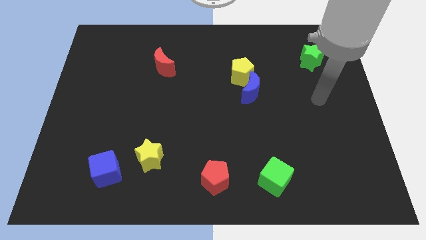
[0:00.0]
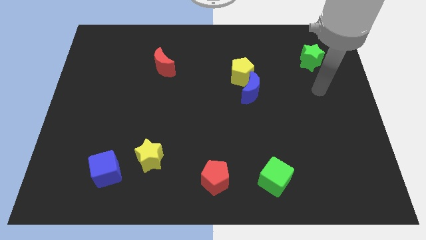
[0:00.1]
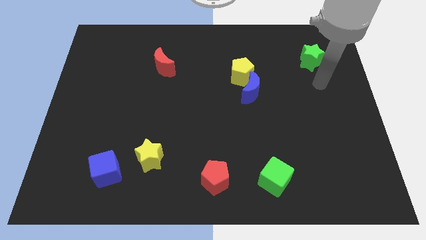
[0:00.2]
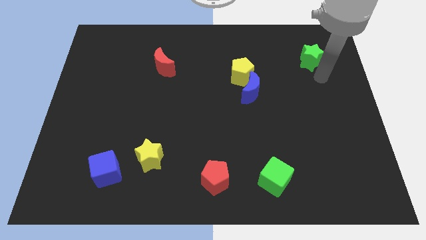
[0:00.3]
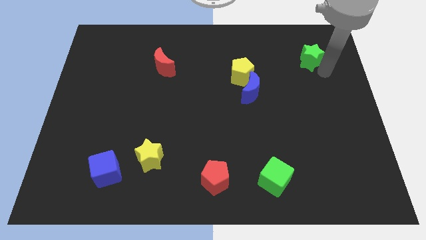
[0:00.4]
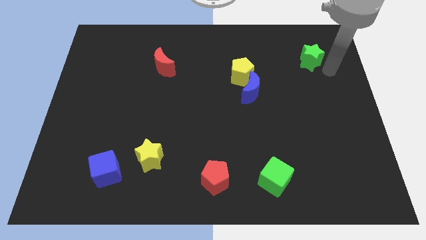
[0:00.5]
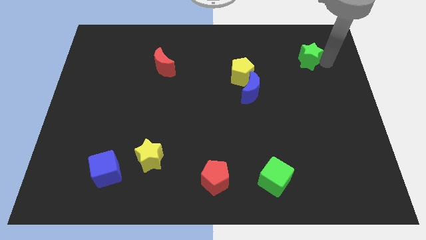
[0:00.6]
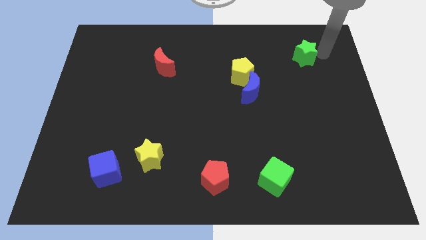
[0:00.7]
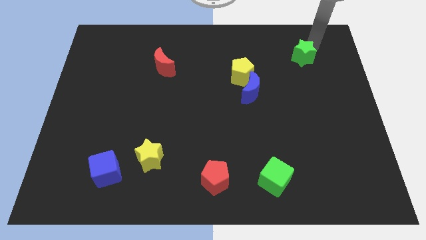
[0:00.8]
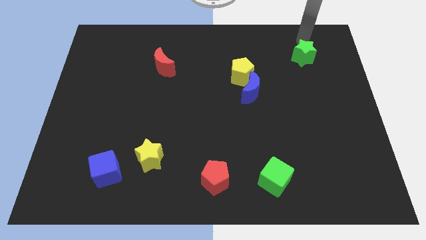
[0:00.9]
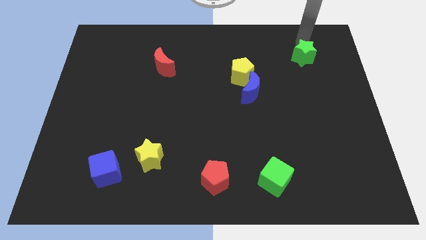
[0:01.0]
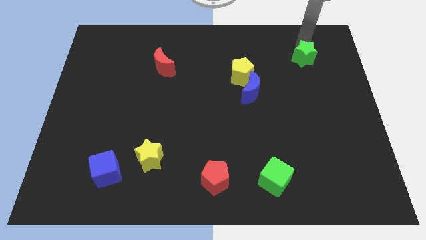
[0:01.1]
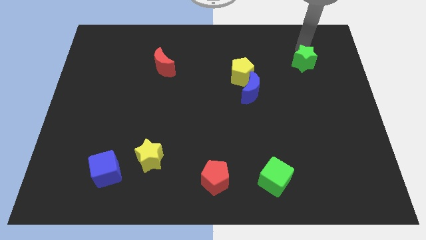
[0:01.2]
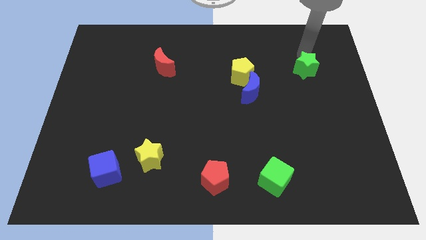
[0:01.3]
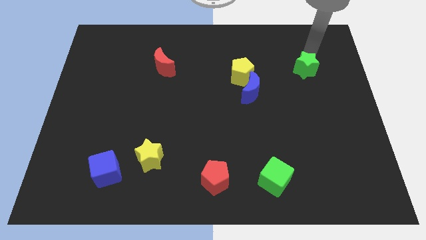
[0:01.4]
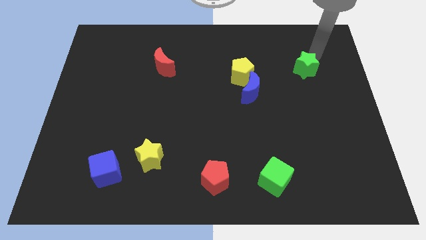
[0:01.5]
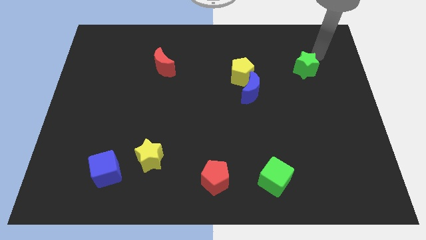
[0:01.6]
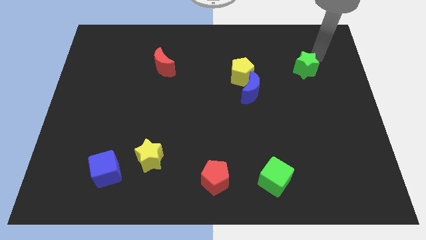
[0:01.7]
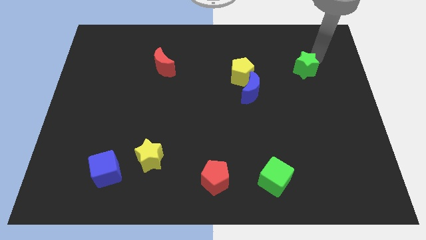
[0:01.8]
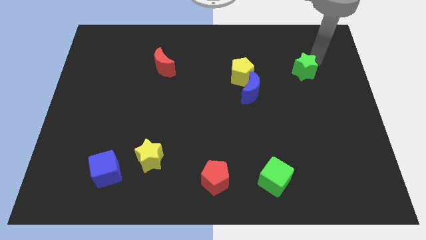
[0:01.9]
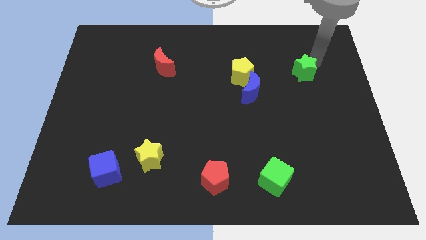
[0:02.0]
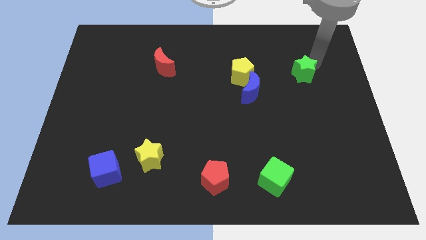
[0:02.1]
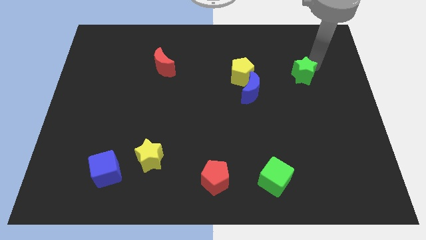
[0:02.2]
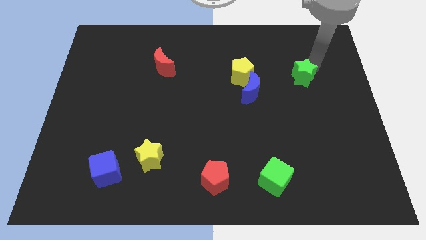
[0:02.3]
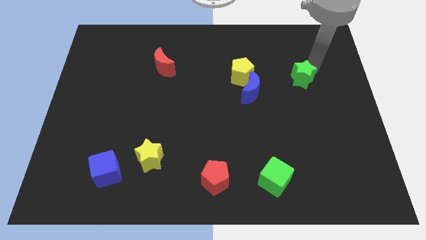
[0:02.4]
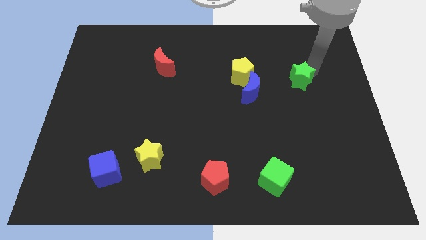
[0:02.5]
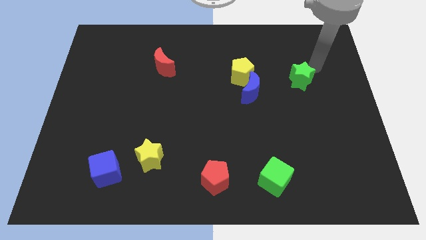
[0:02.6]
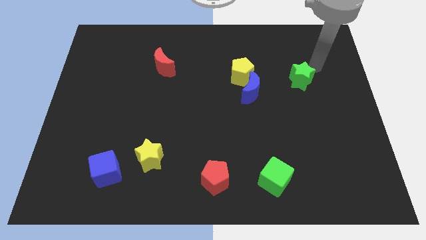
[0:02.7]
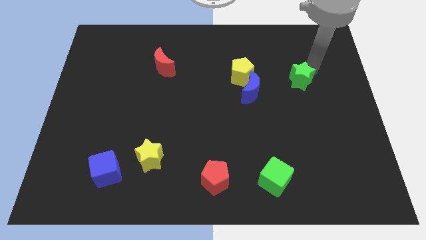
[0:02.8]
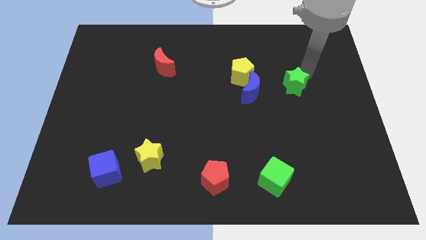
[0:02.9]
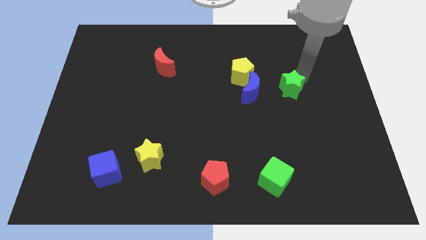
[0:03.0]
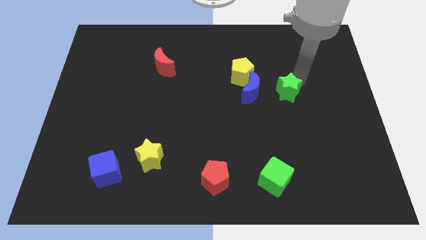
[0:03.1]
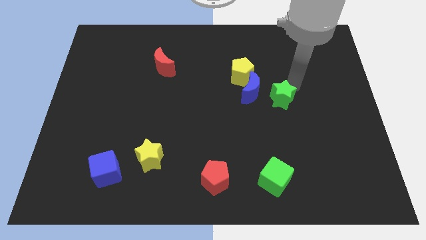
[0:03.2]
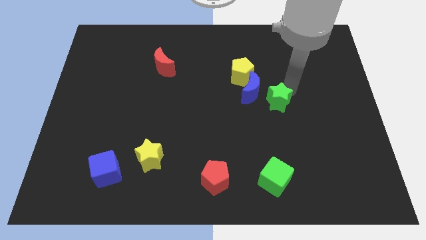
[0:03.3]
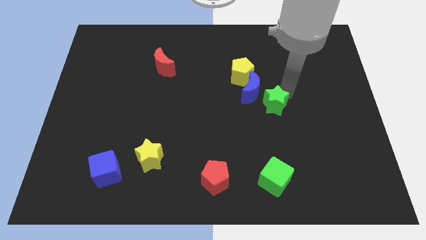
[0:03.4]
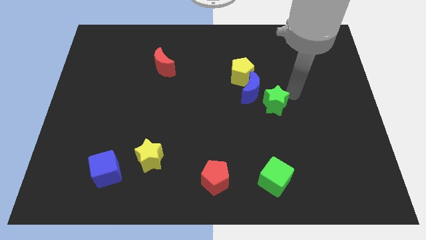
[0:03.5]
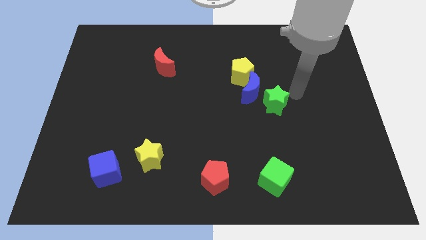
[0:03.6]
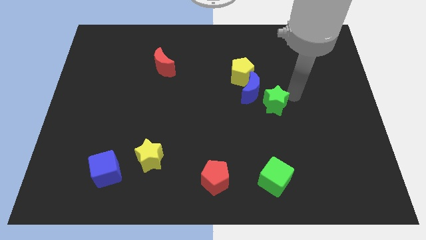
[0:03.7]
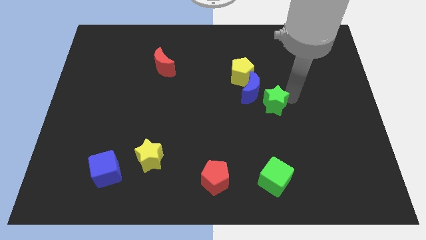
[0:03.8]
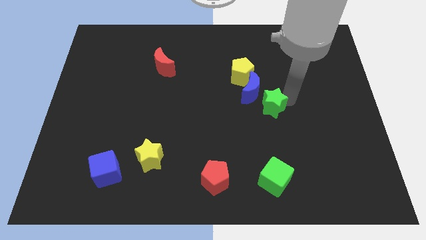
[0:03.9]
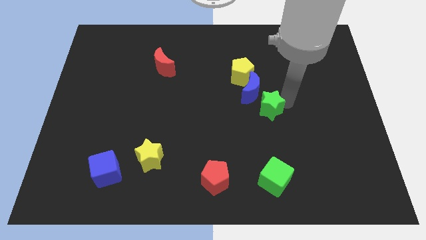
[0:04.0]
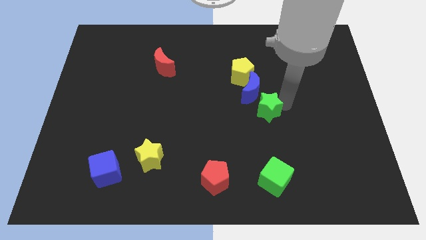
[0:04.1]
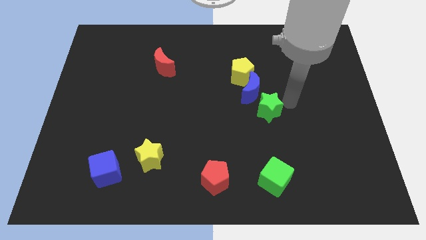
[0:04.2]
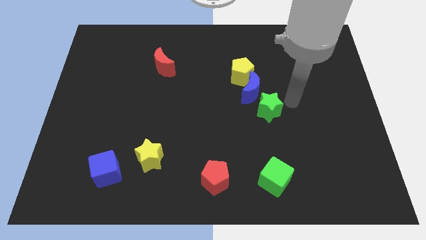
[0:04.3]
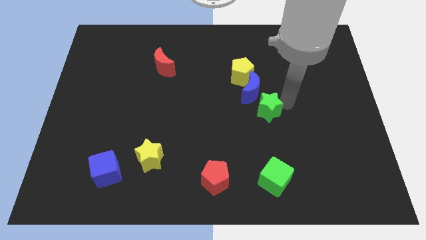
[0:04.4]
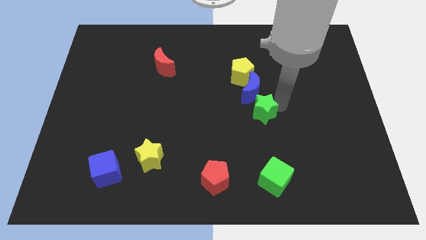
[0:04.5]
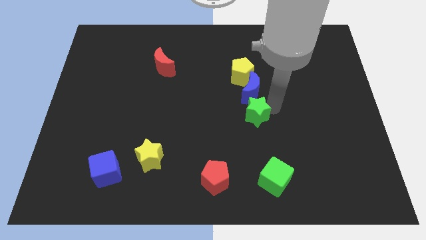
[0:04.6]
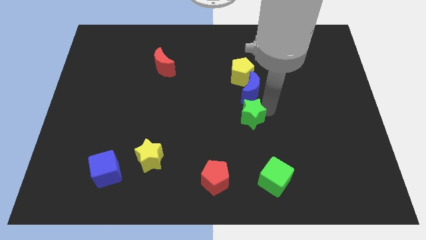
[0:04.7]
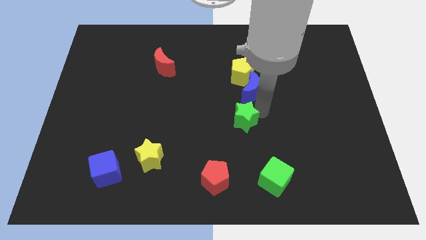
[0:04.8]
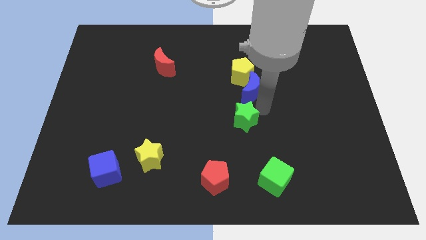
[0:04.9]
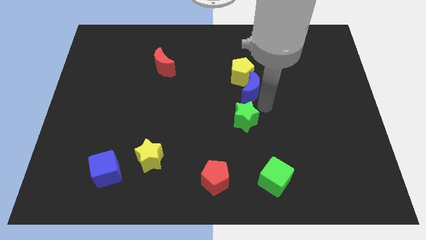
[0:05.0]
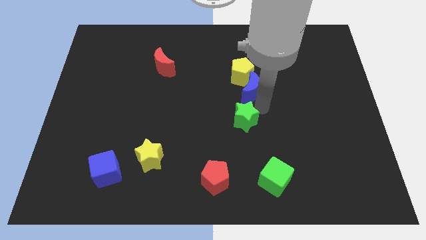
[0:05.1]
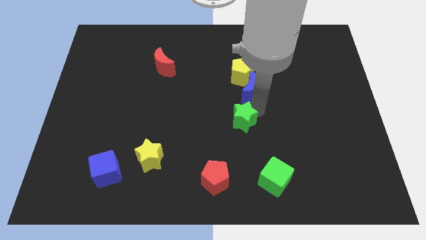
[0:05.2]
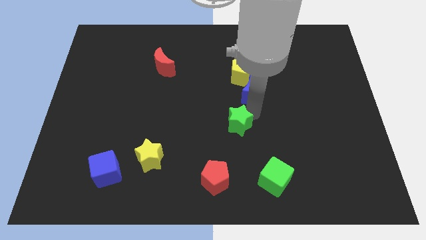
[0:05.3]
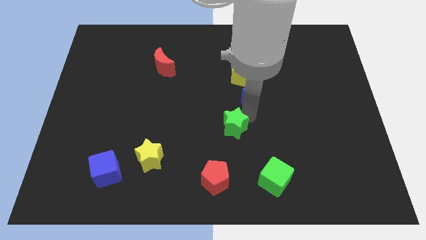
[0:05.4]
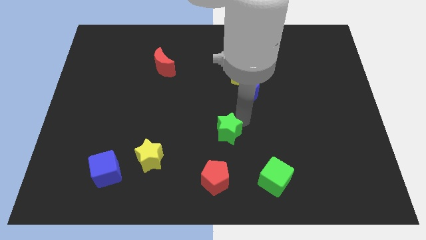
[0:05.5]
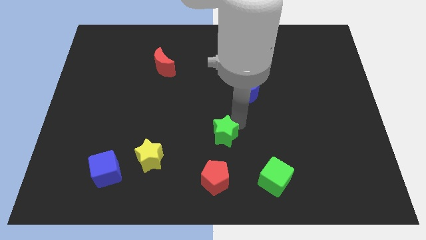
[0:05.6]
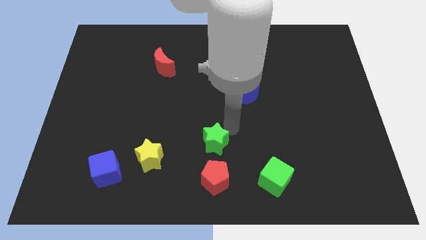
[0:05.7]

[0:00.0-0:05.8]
slide the green star to the right side of the yellow star

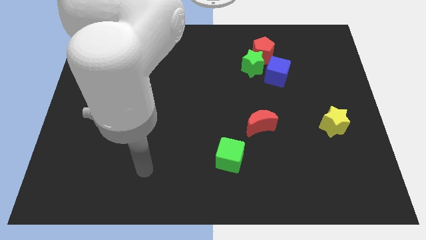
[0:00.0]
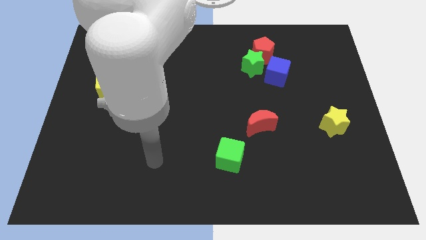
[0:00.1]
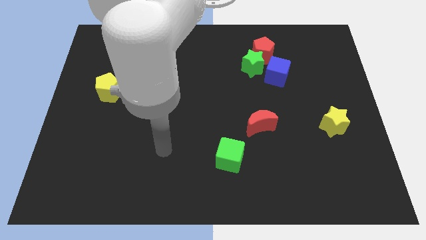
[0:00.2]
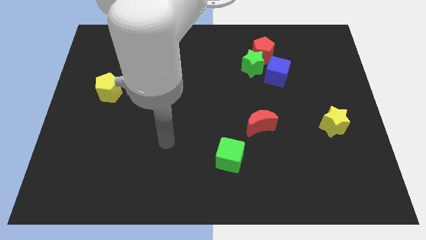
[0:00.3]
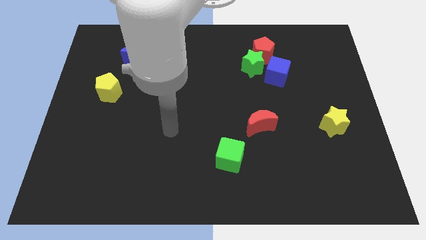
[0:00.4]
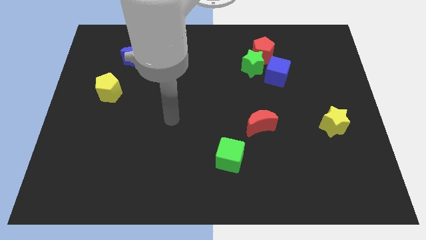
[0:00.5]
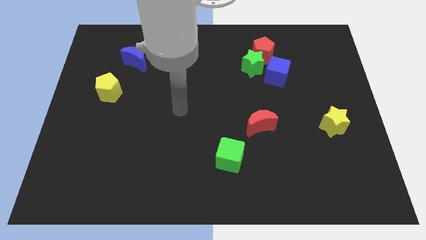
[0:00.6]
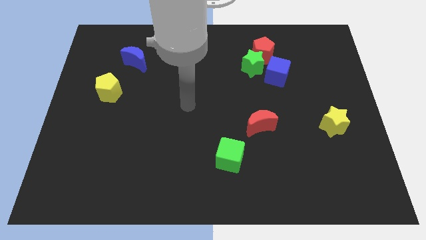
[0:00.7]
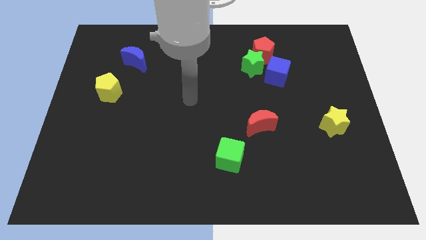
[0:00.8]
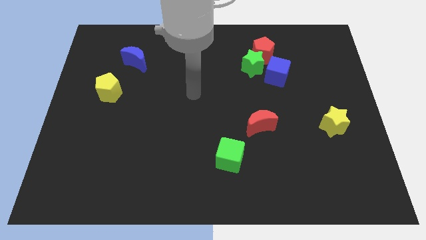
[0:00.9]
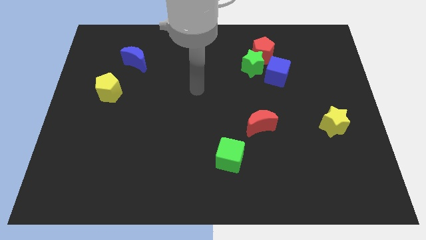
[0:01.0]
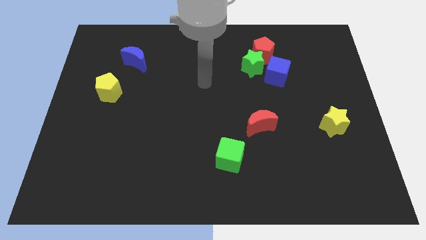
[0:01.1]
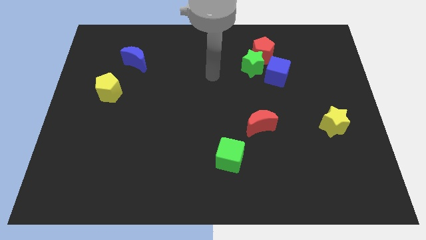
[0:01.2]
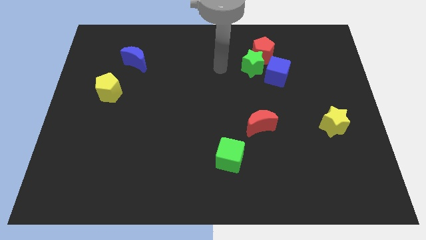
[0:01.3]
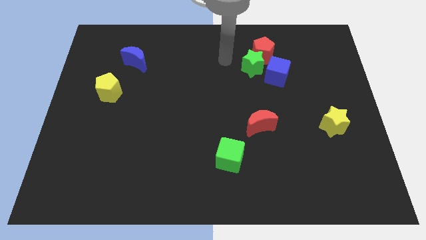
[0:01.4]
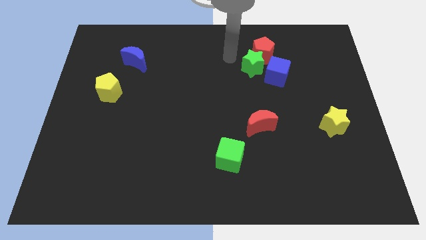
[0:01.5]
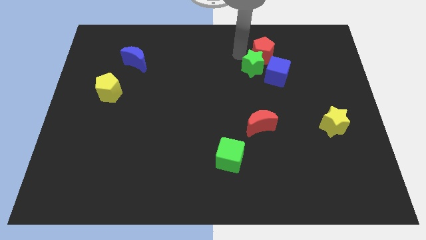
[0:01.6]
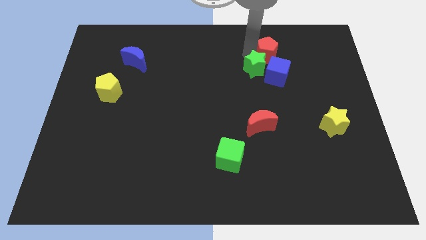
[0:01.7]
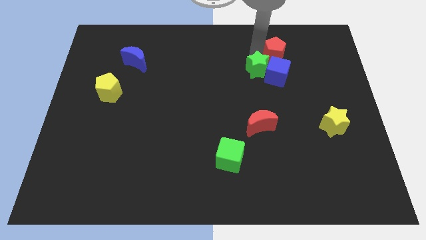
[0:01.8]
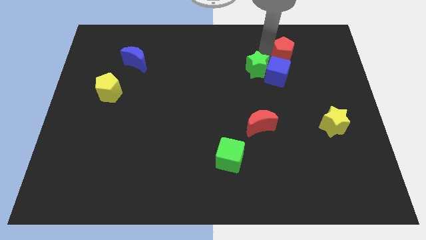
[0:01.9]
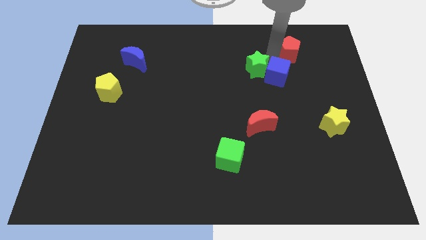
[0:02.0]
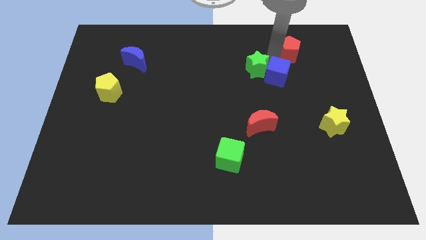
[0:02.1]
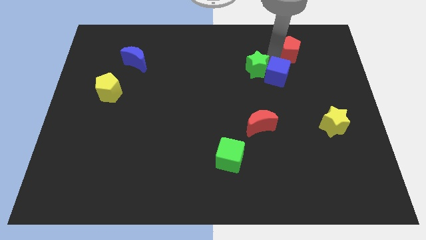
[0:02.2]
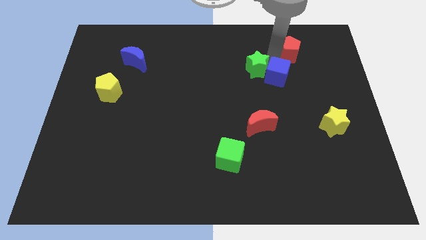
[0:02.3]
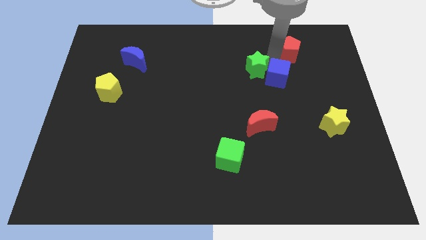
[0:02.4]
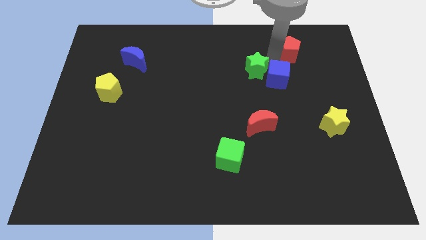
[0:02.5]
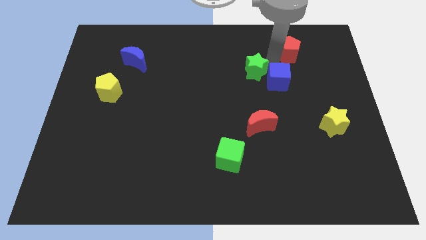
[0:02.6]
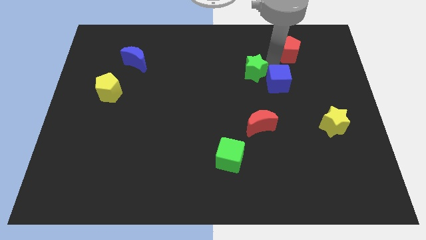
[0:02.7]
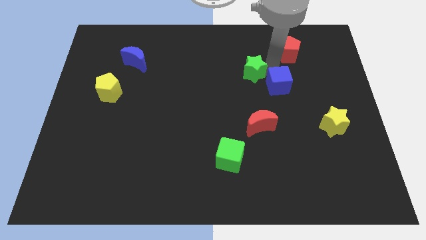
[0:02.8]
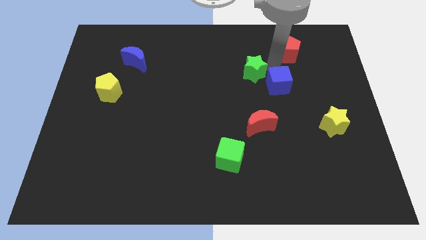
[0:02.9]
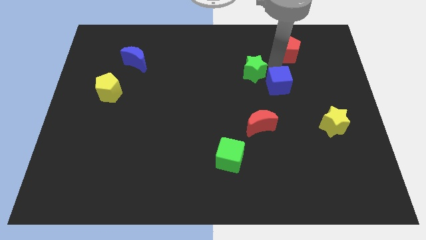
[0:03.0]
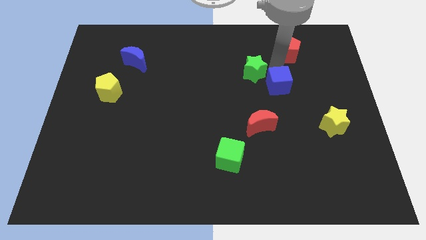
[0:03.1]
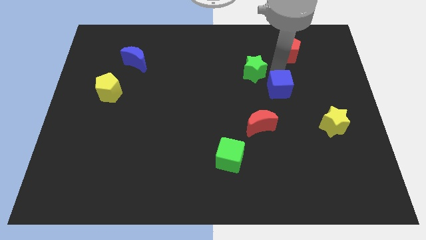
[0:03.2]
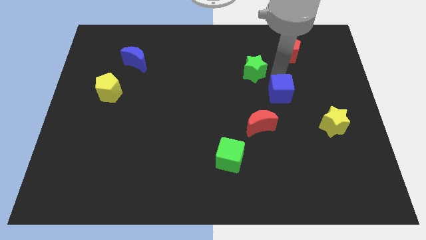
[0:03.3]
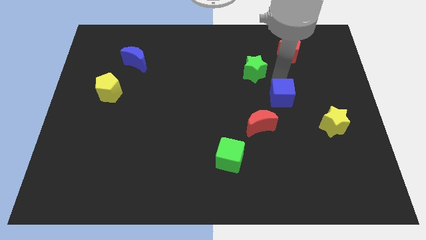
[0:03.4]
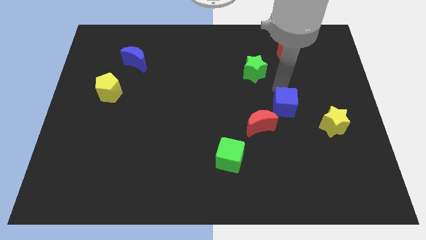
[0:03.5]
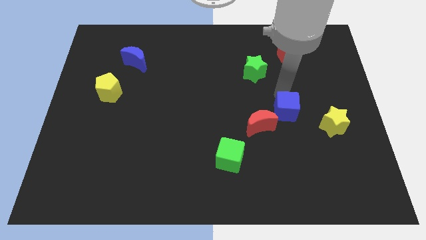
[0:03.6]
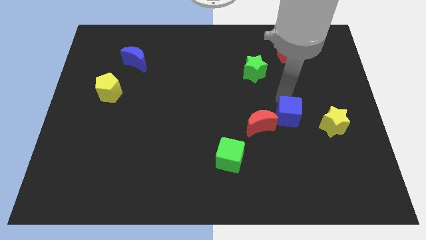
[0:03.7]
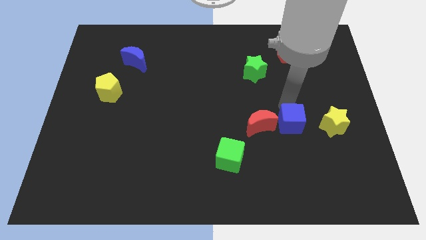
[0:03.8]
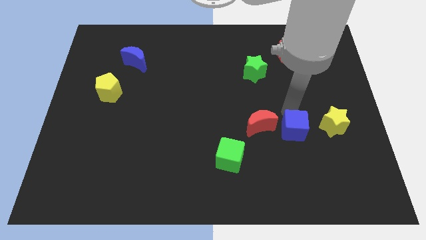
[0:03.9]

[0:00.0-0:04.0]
put the blue cube diagonally down and to the right of the red moon
